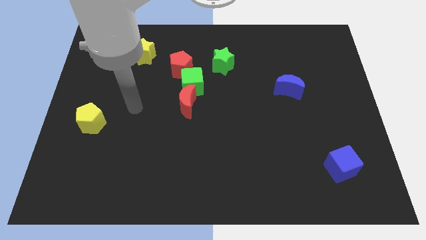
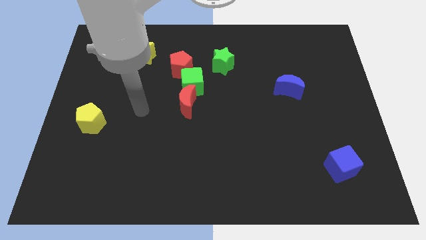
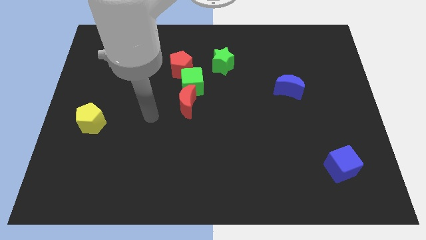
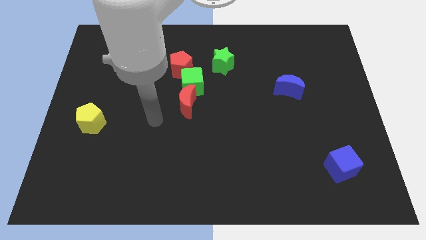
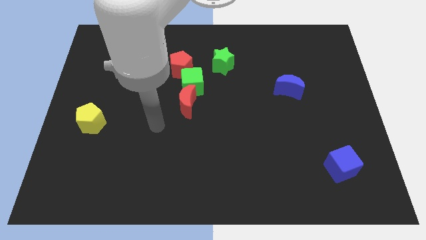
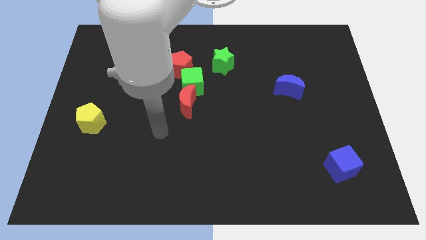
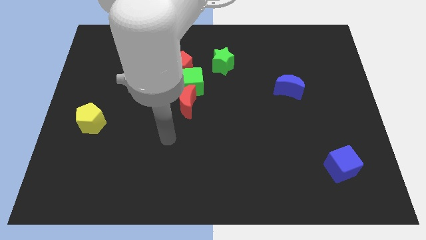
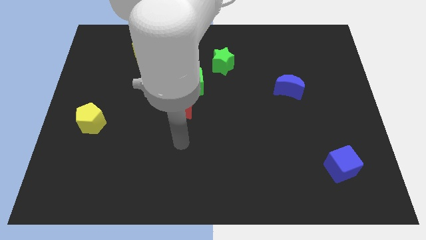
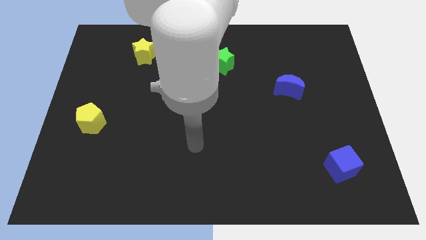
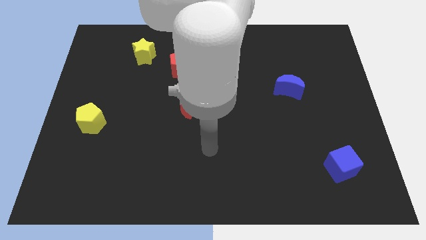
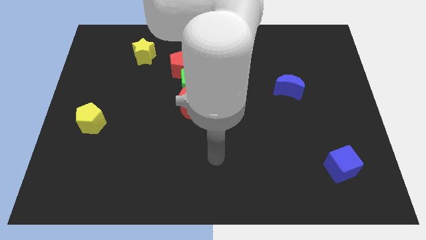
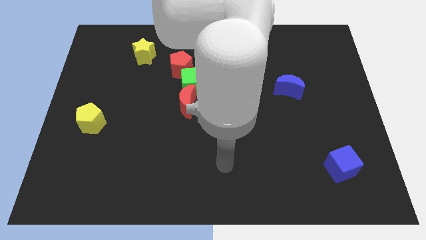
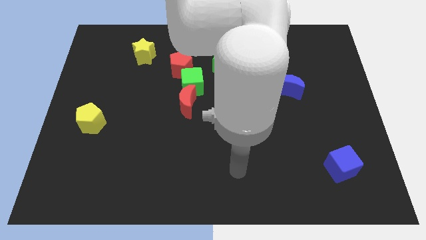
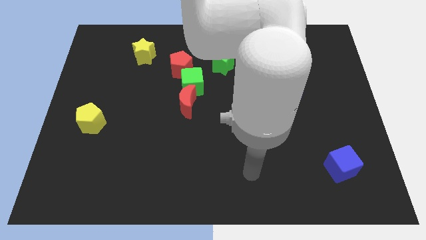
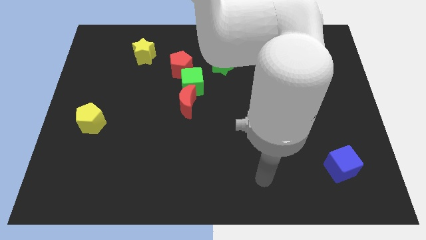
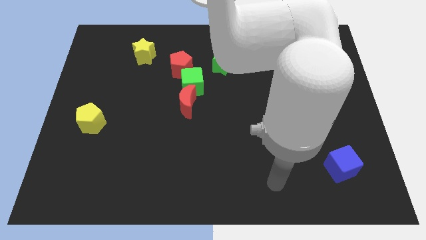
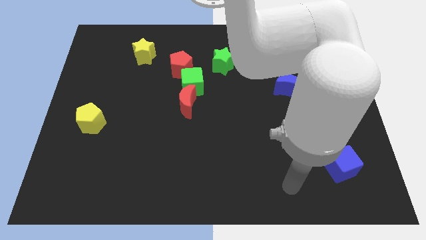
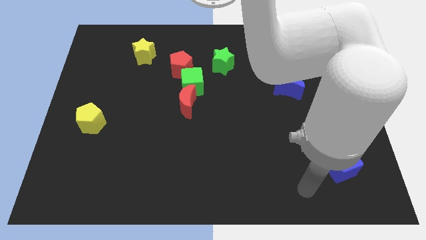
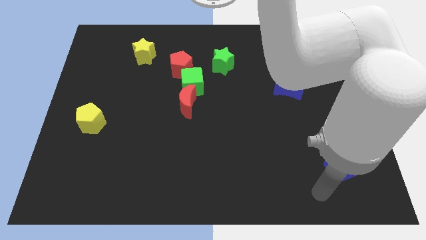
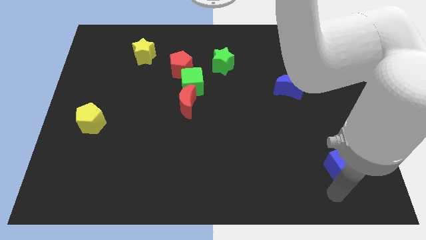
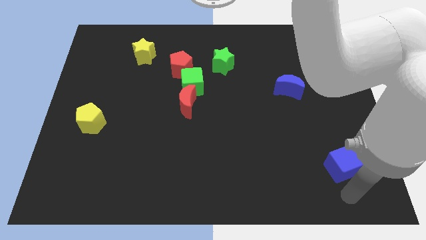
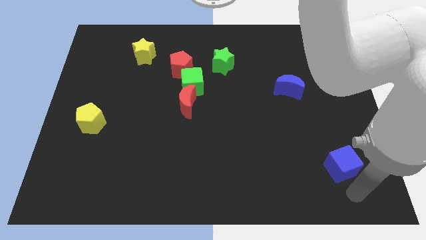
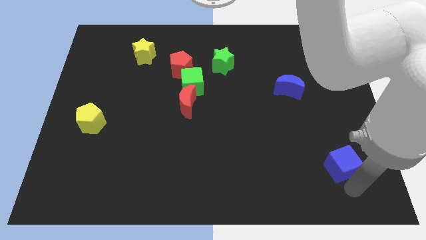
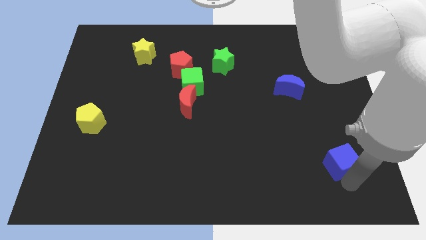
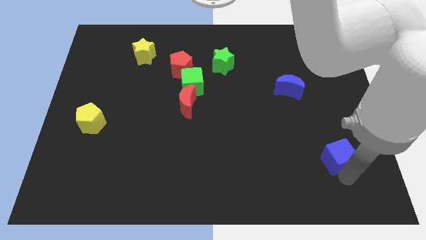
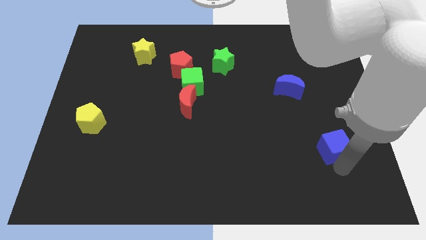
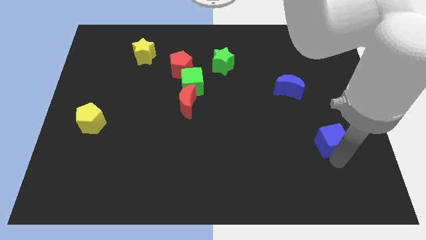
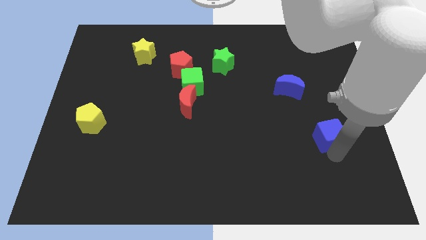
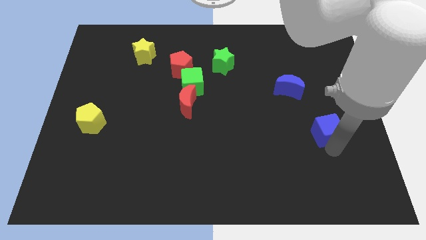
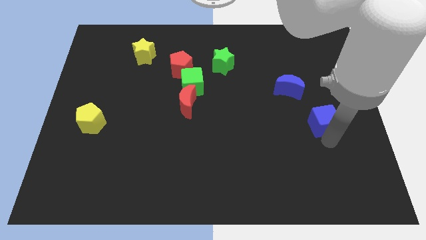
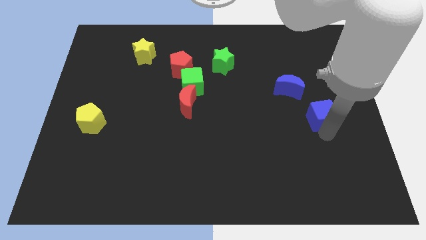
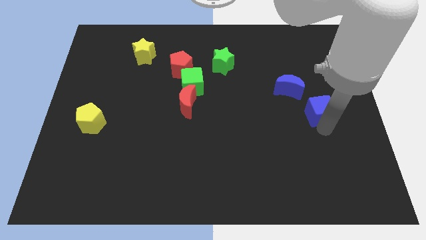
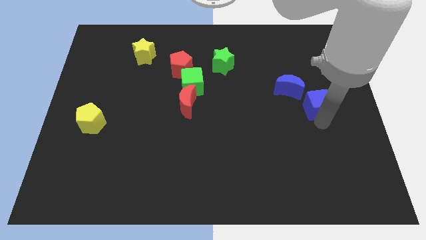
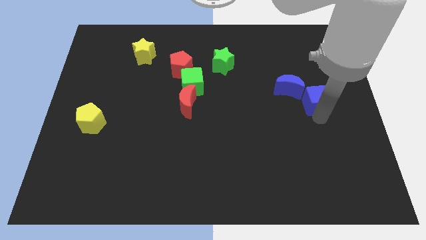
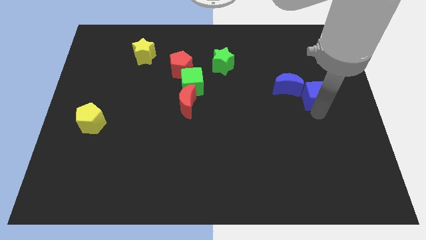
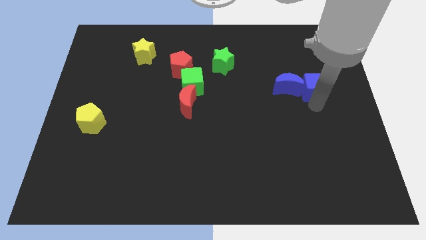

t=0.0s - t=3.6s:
push the blue cube upwards

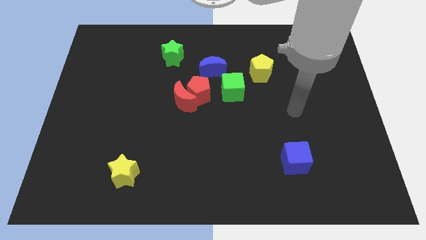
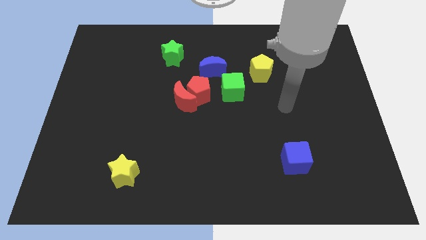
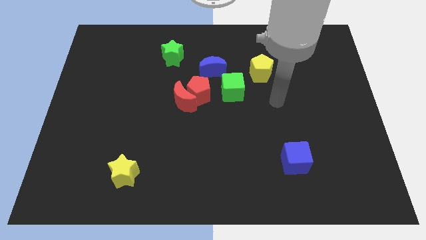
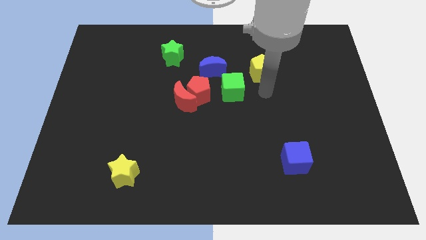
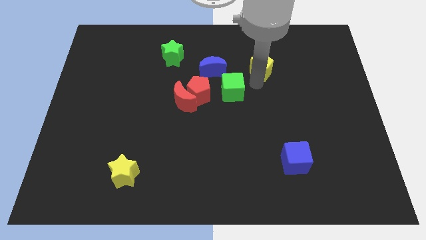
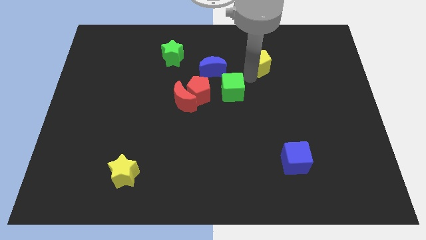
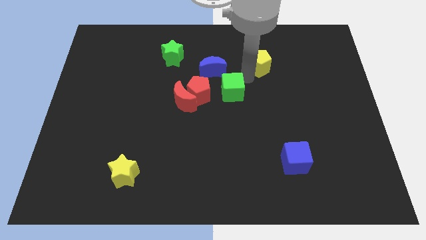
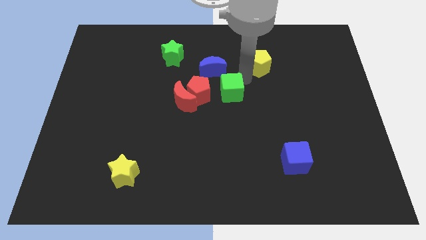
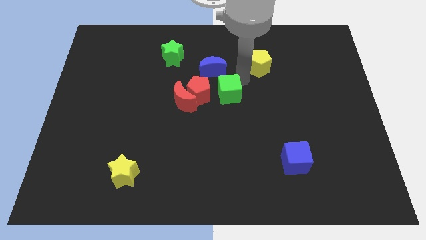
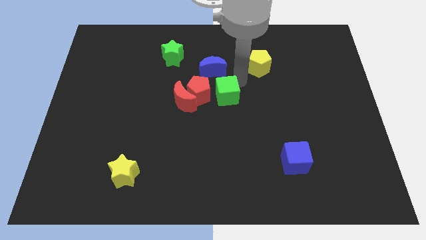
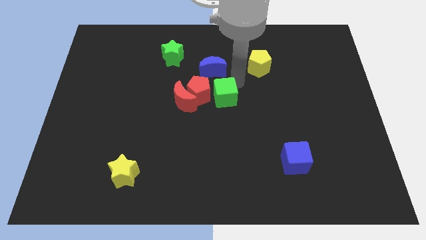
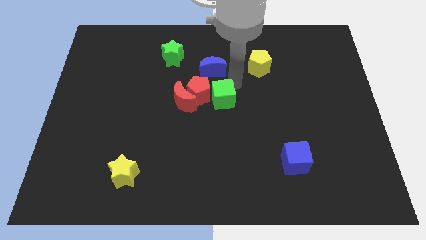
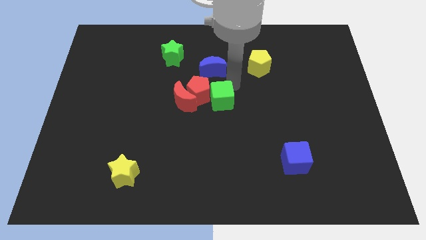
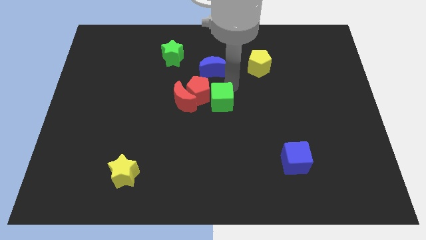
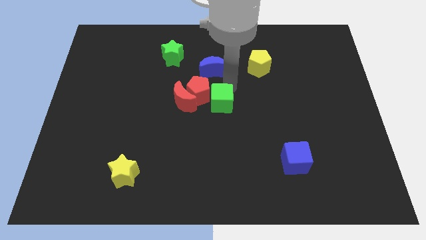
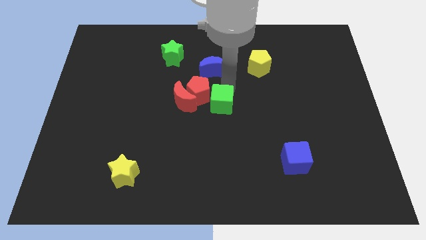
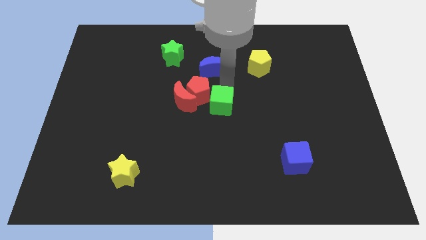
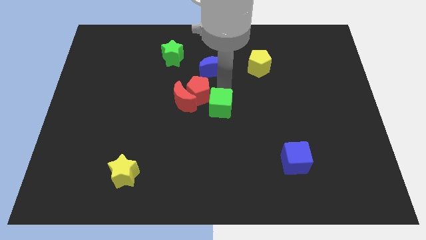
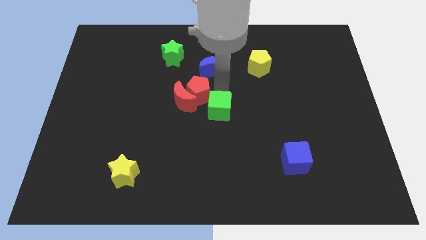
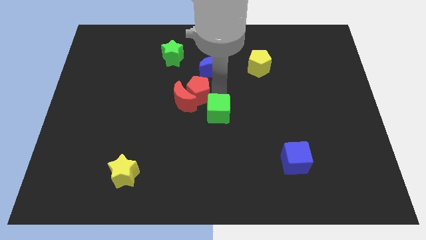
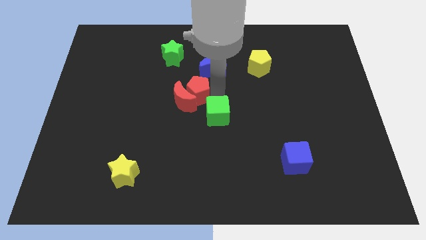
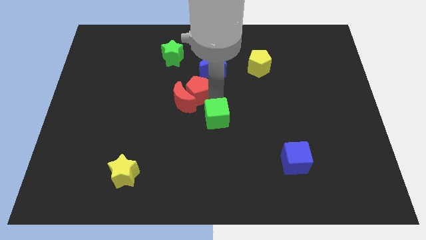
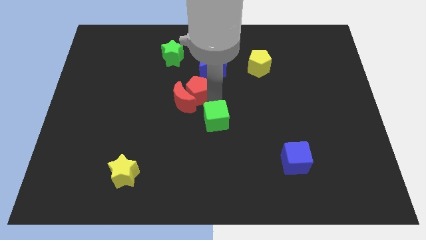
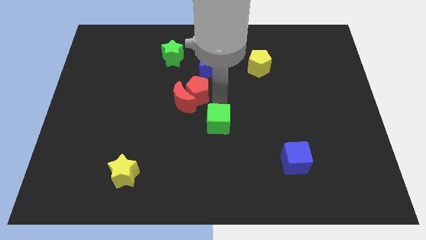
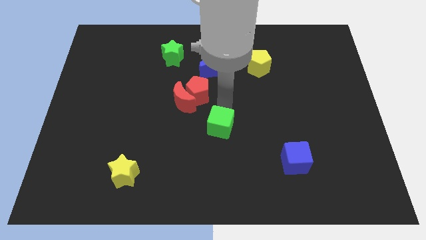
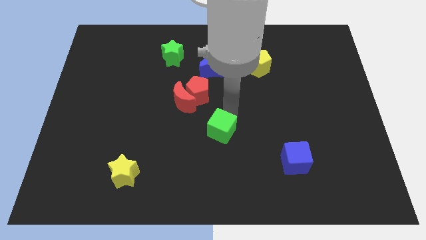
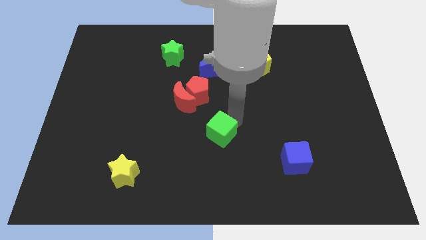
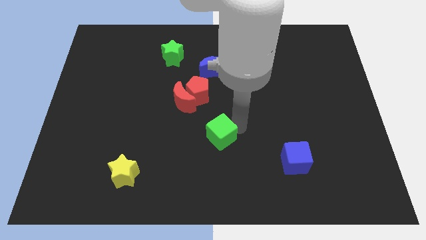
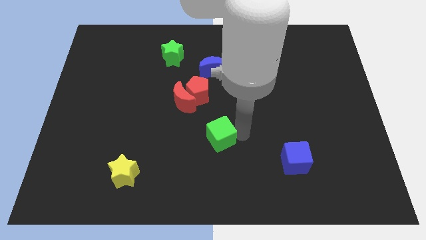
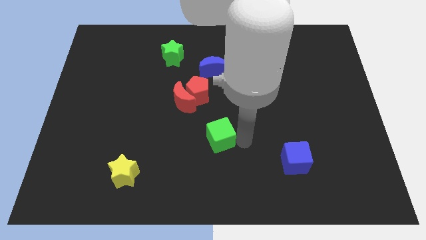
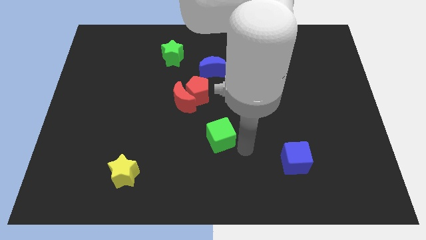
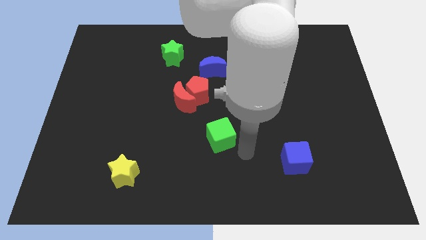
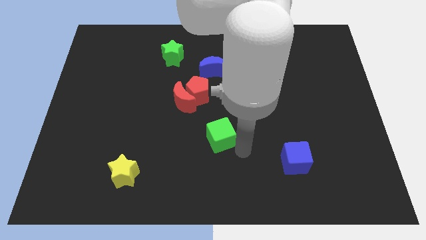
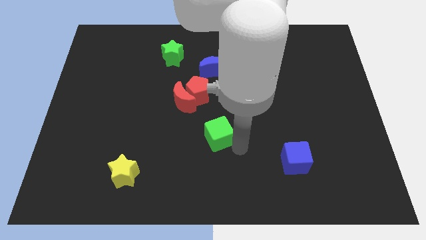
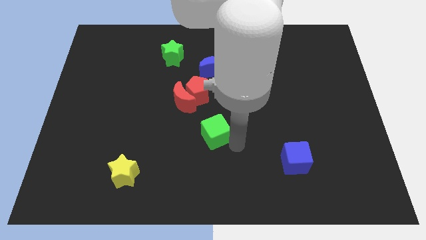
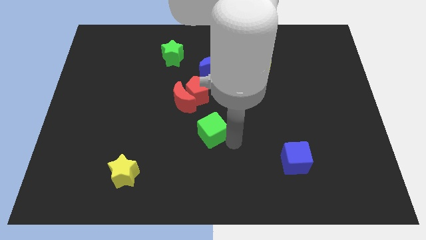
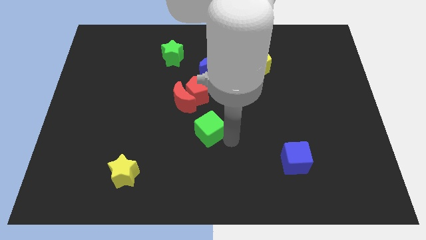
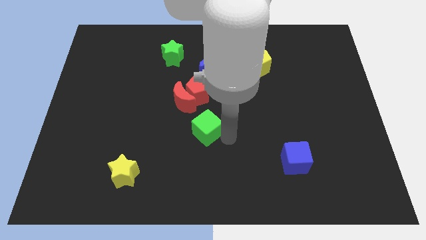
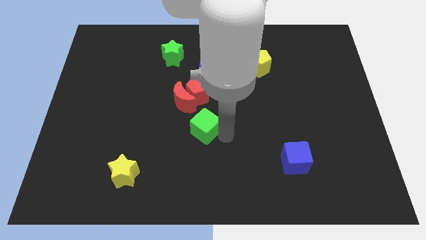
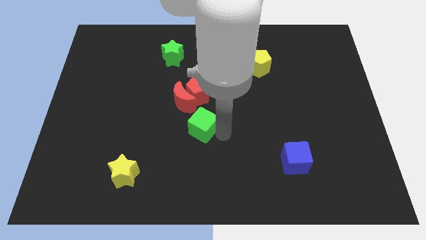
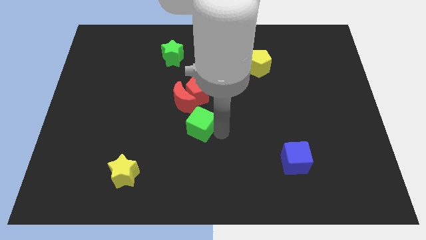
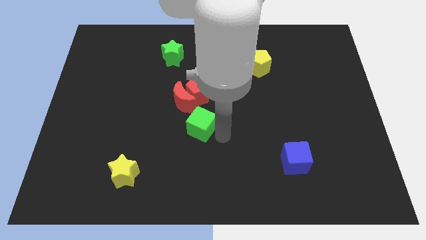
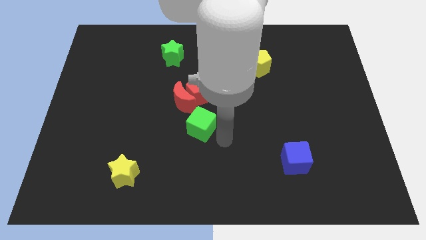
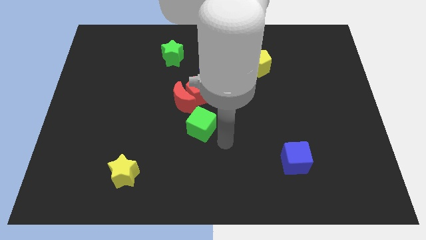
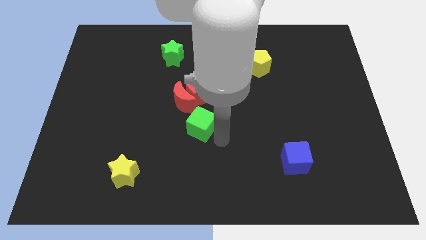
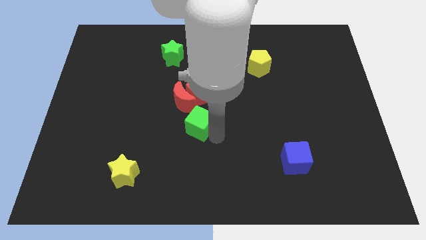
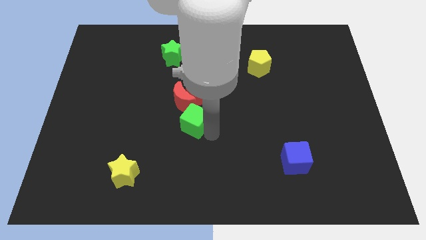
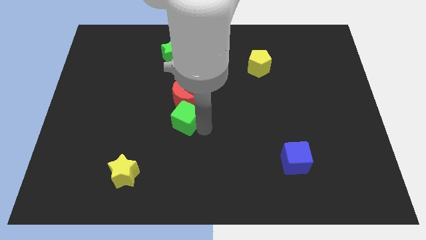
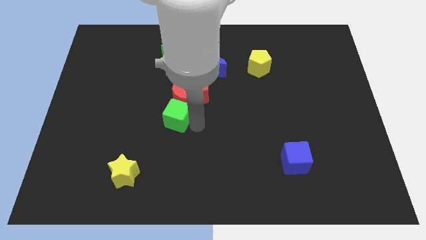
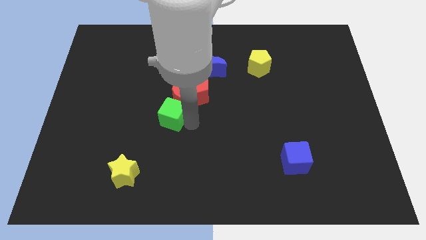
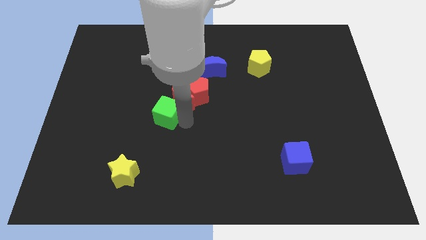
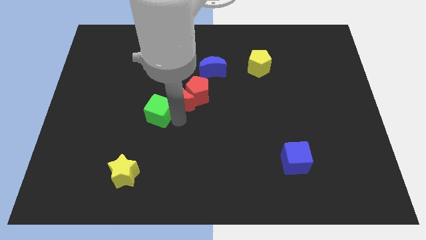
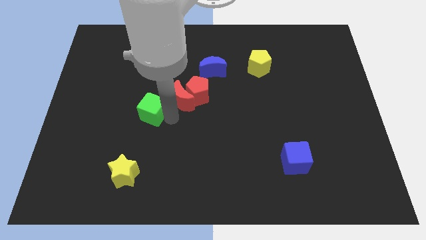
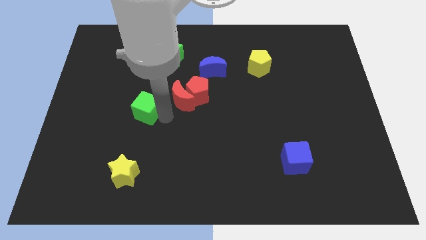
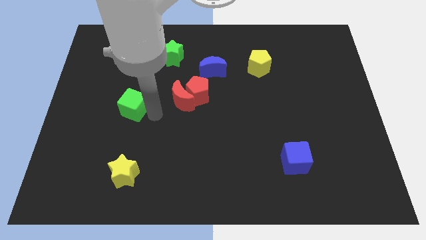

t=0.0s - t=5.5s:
push the green cube to the left
